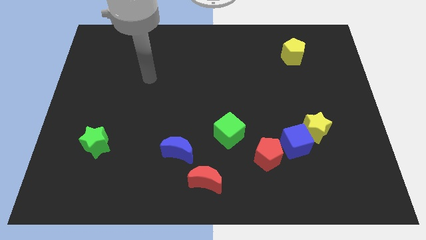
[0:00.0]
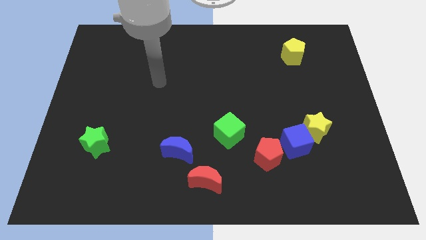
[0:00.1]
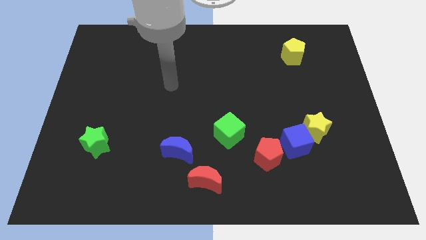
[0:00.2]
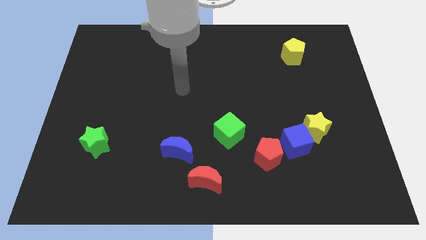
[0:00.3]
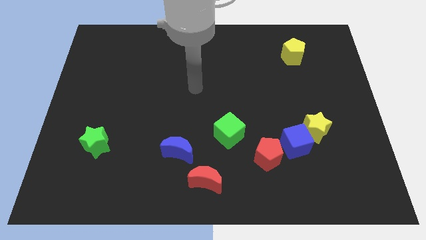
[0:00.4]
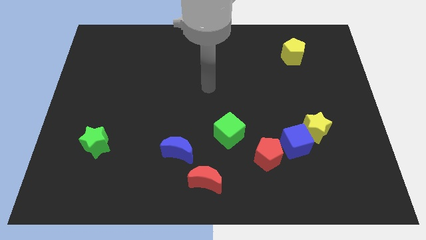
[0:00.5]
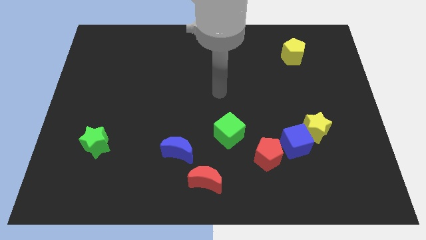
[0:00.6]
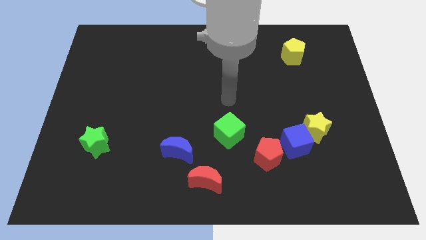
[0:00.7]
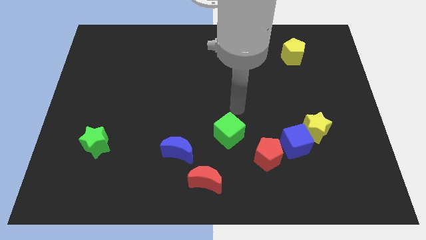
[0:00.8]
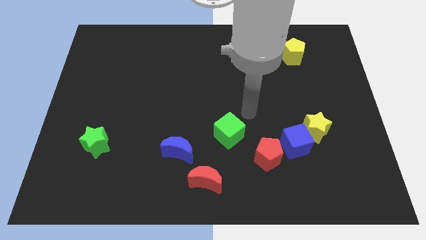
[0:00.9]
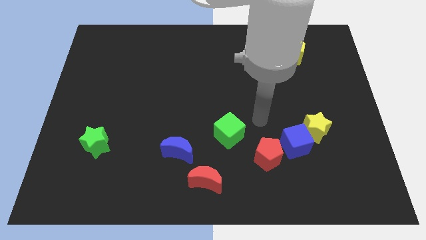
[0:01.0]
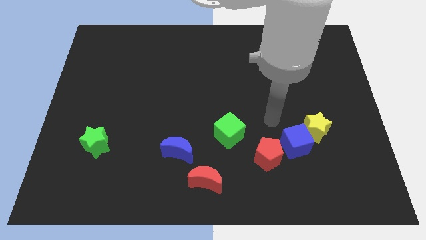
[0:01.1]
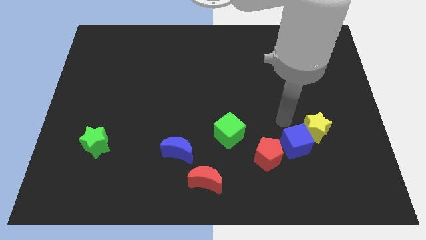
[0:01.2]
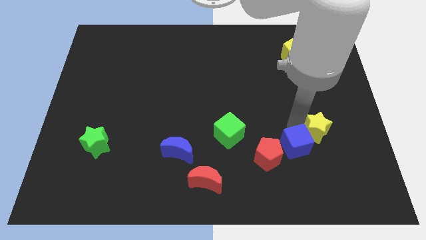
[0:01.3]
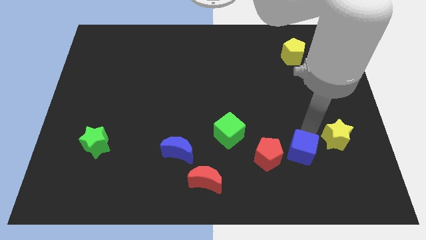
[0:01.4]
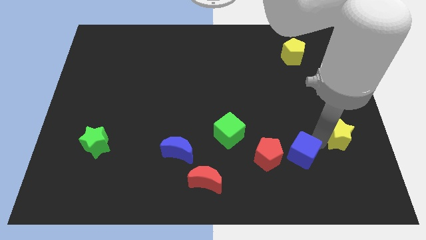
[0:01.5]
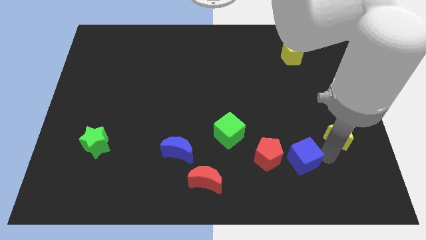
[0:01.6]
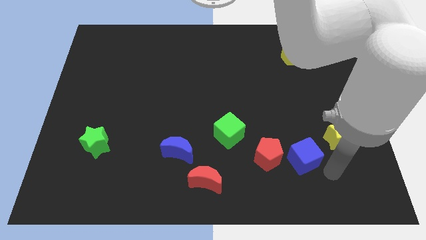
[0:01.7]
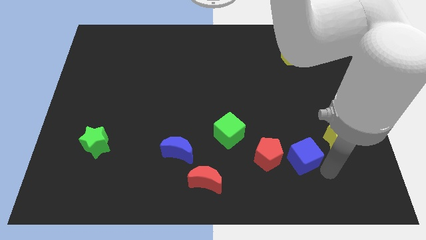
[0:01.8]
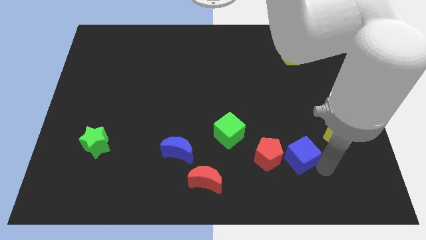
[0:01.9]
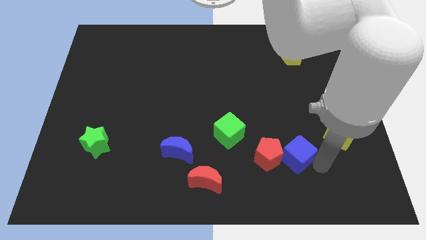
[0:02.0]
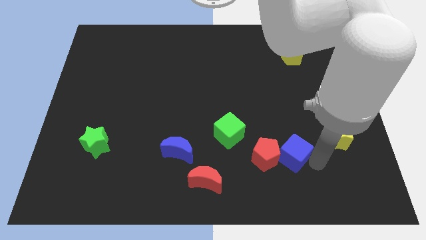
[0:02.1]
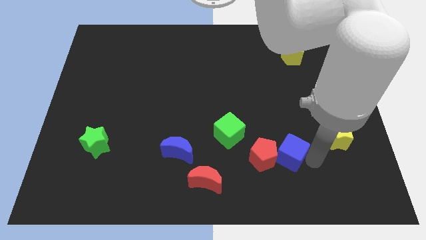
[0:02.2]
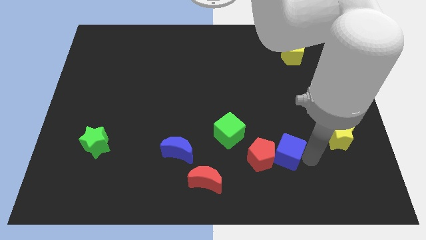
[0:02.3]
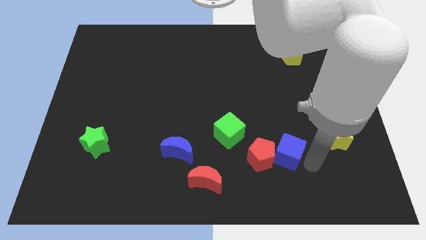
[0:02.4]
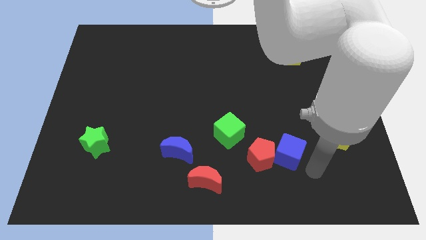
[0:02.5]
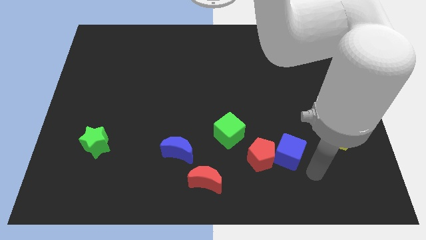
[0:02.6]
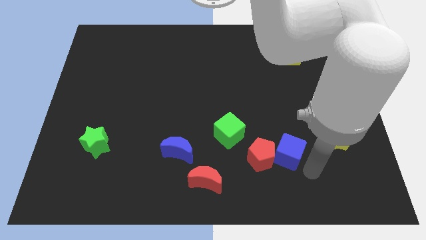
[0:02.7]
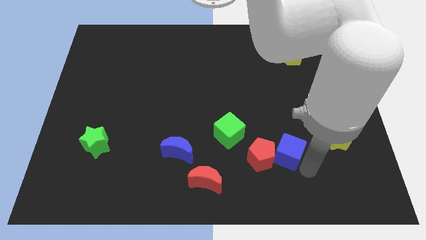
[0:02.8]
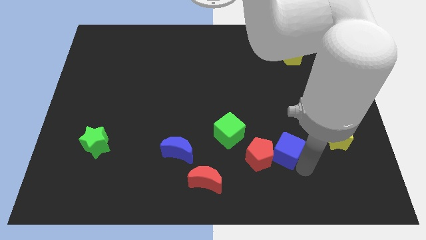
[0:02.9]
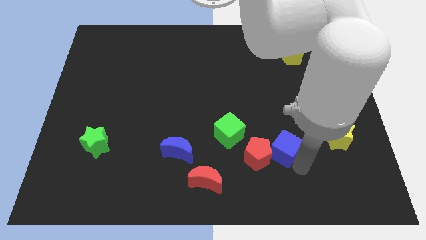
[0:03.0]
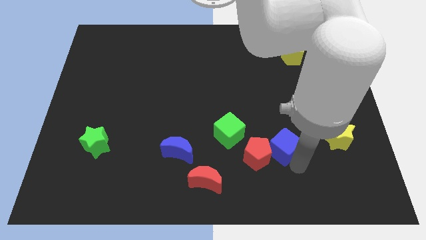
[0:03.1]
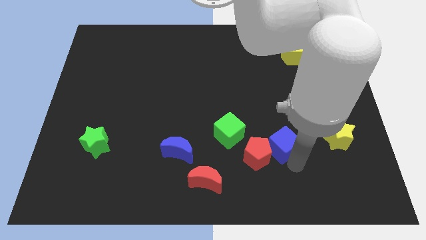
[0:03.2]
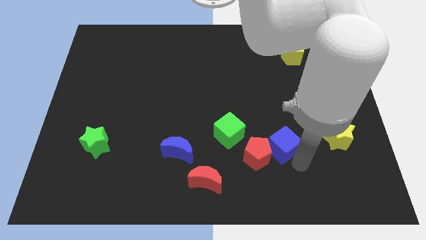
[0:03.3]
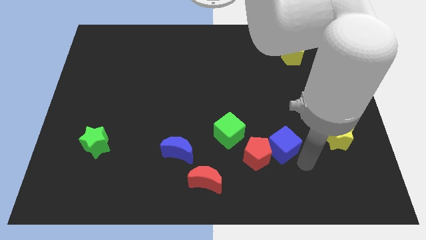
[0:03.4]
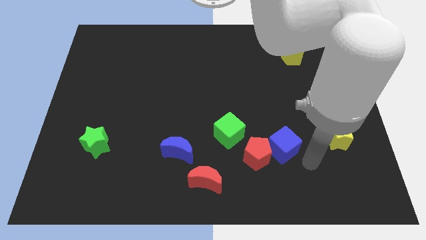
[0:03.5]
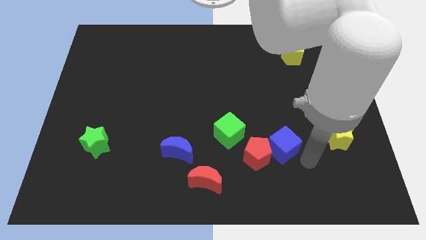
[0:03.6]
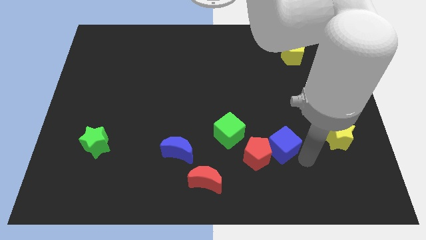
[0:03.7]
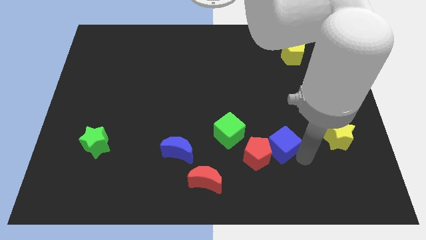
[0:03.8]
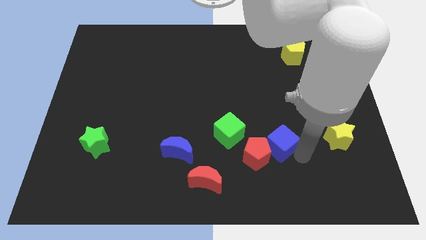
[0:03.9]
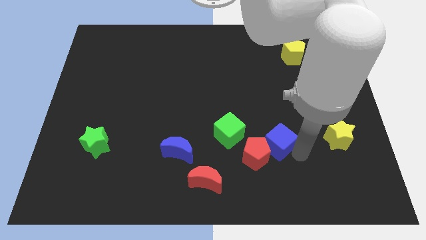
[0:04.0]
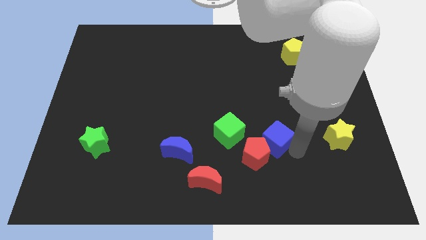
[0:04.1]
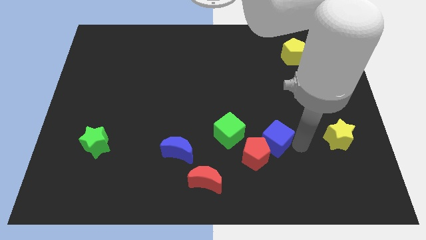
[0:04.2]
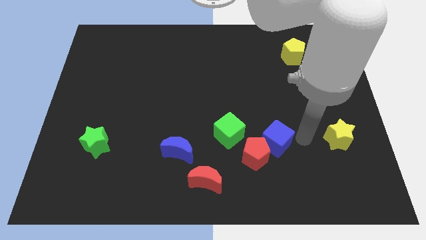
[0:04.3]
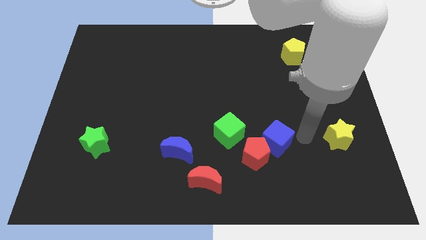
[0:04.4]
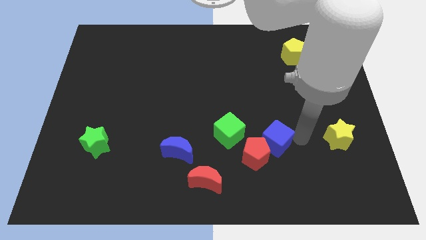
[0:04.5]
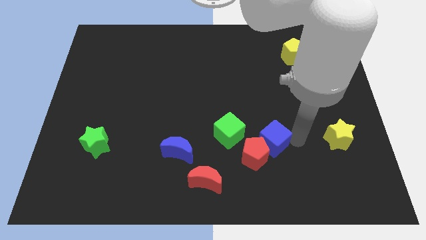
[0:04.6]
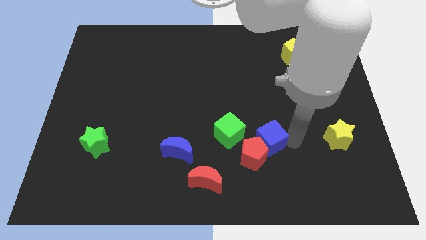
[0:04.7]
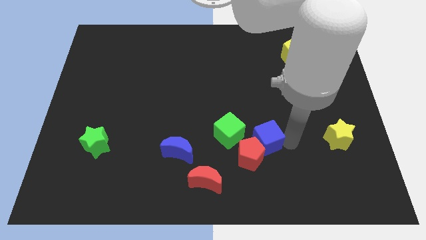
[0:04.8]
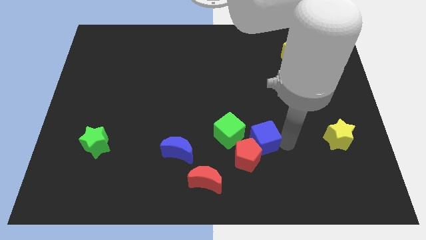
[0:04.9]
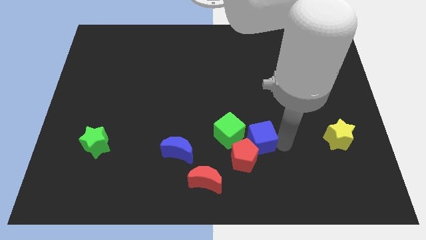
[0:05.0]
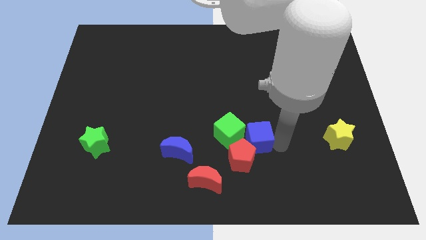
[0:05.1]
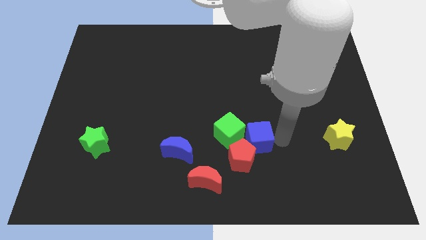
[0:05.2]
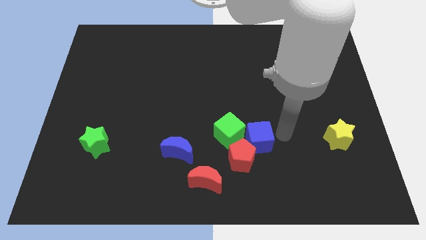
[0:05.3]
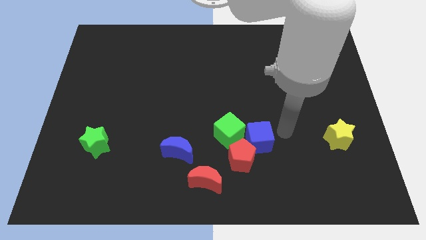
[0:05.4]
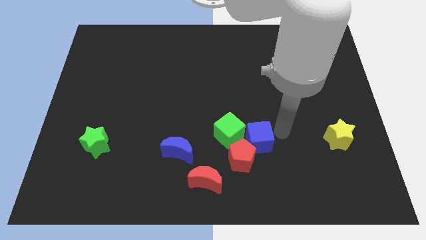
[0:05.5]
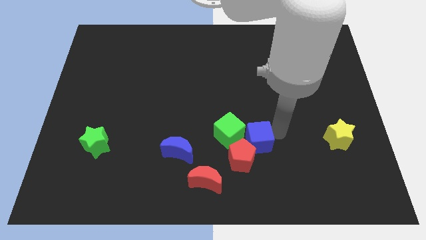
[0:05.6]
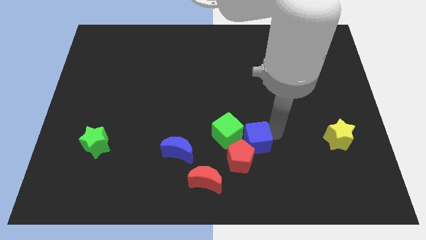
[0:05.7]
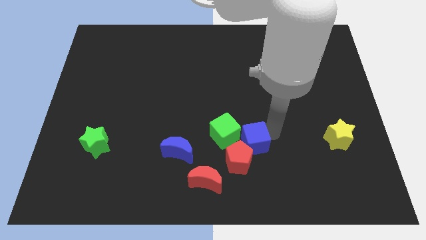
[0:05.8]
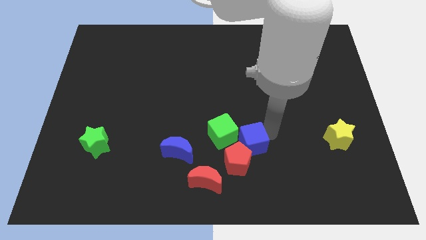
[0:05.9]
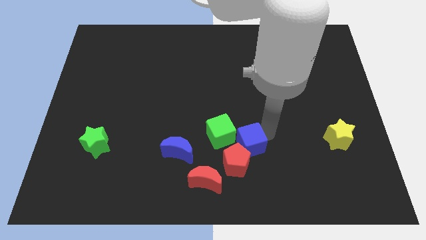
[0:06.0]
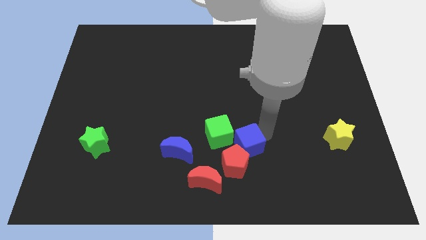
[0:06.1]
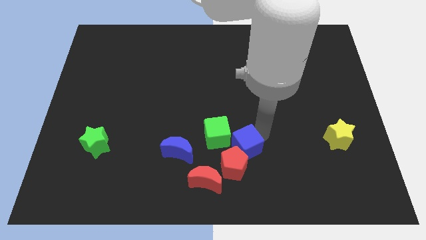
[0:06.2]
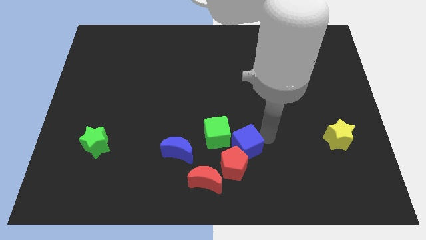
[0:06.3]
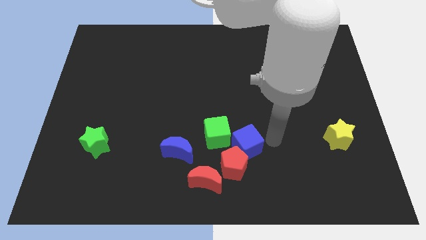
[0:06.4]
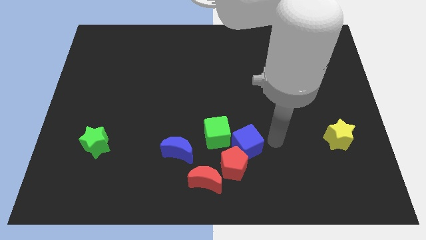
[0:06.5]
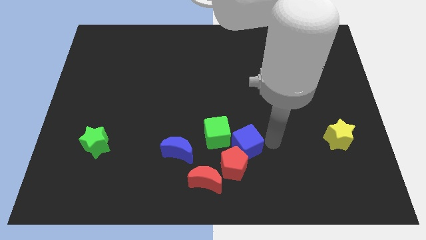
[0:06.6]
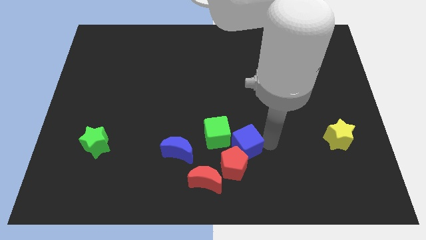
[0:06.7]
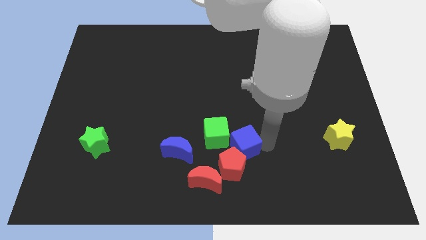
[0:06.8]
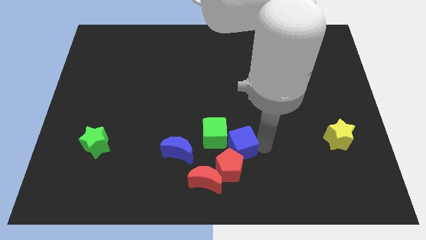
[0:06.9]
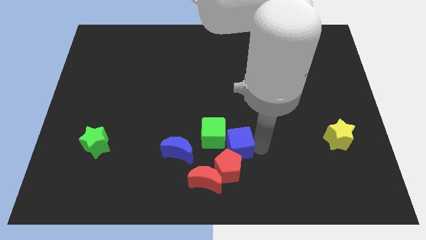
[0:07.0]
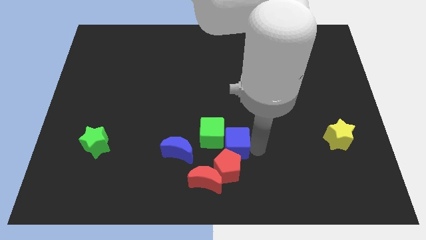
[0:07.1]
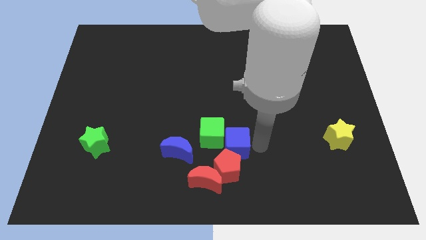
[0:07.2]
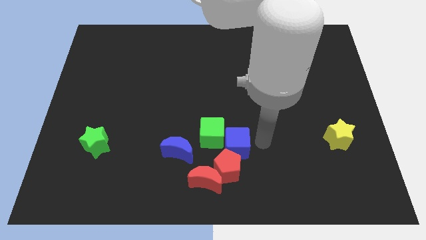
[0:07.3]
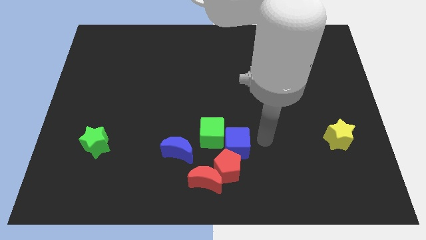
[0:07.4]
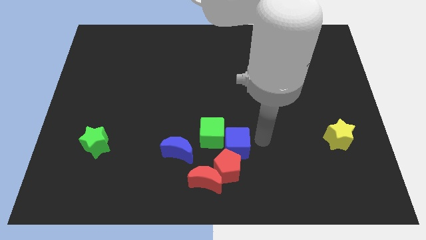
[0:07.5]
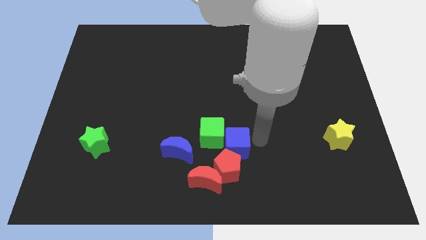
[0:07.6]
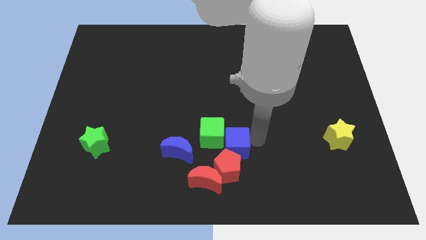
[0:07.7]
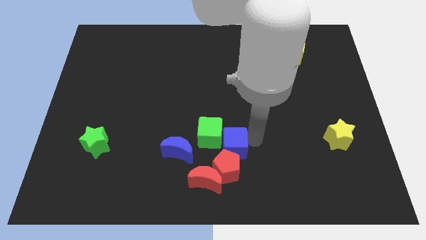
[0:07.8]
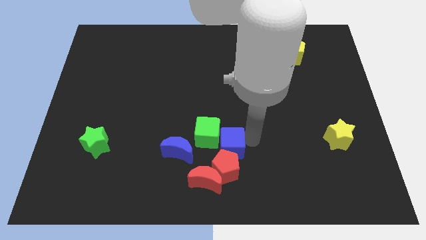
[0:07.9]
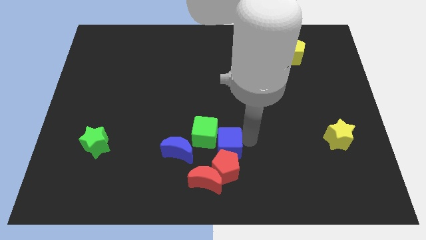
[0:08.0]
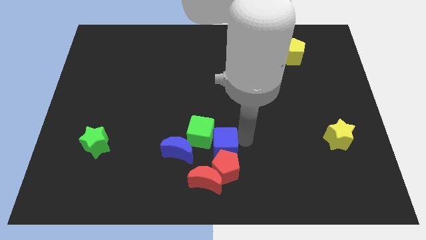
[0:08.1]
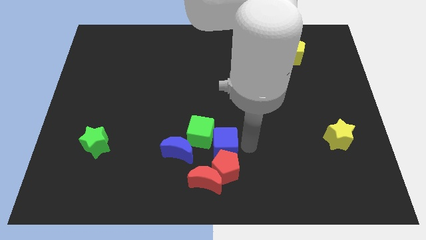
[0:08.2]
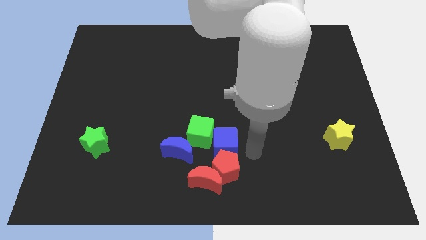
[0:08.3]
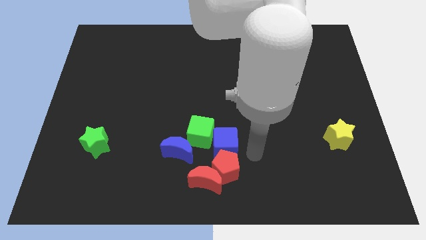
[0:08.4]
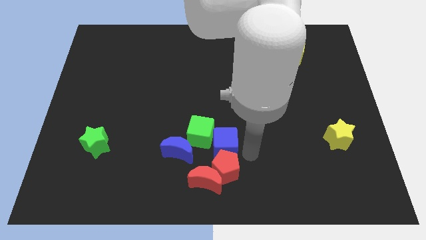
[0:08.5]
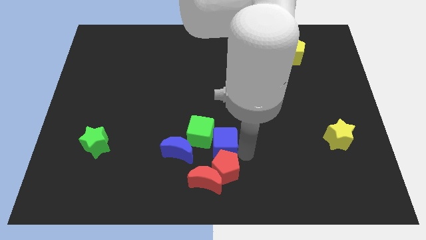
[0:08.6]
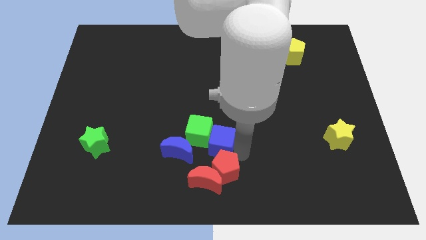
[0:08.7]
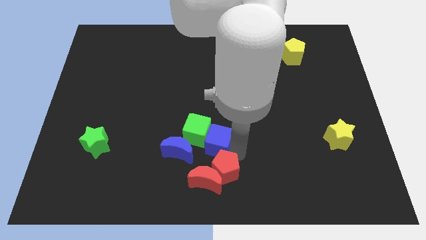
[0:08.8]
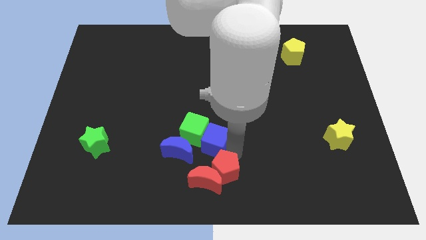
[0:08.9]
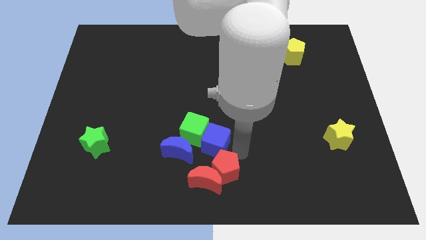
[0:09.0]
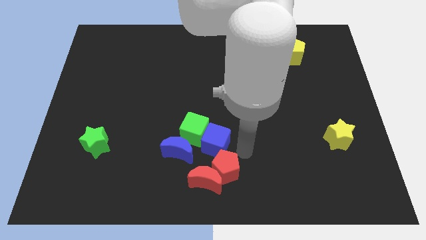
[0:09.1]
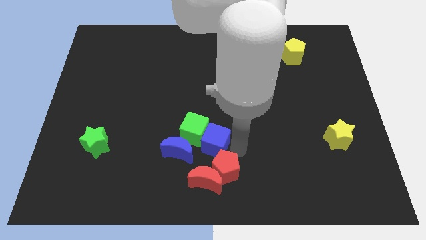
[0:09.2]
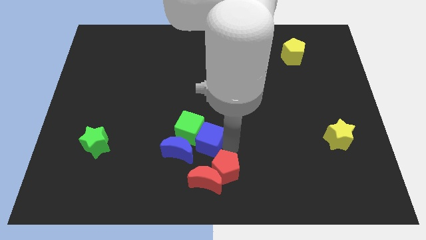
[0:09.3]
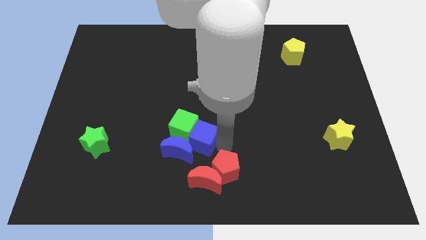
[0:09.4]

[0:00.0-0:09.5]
move the blue cube left
